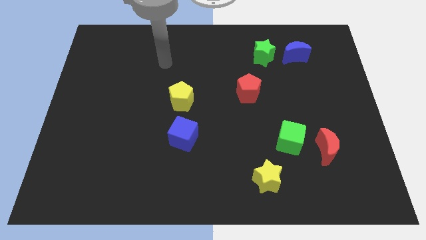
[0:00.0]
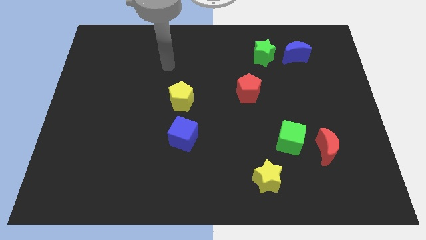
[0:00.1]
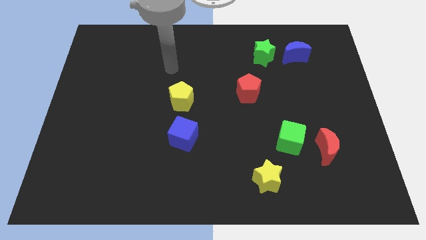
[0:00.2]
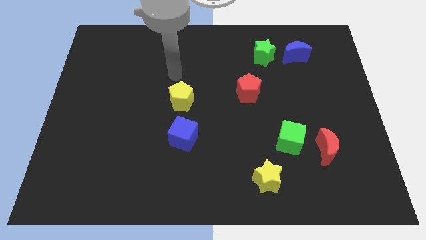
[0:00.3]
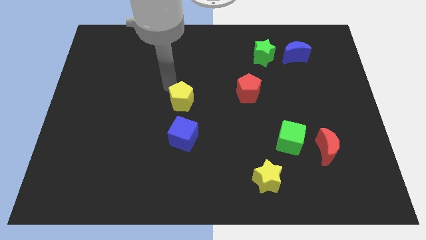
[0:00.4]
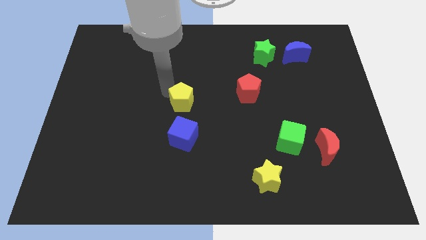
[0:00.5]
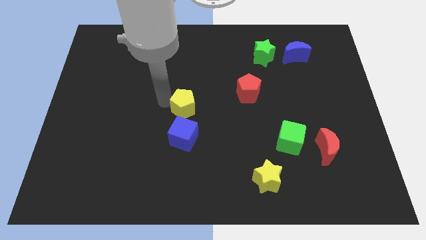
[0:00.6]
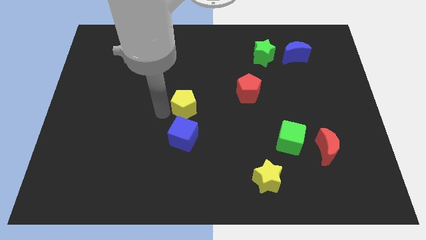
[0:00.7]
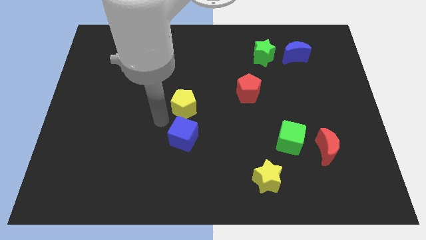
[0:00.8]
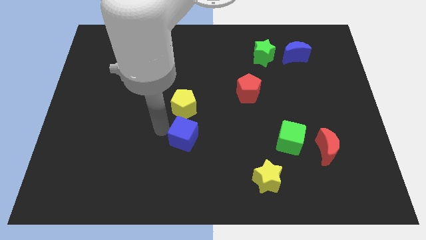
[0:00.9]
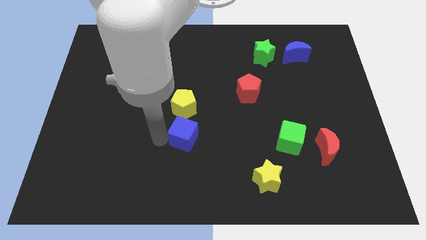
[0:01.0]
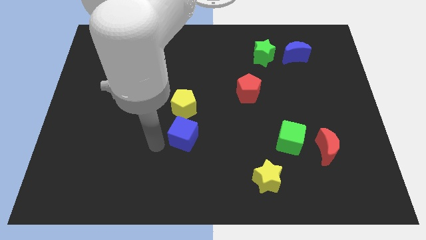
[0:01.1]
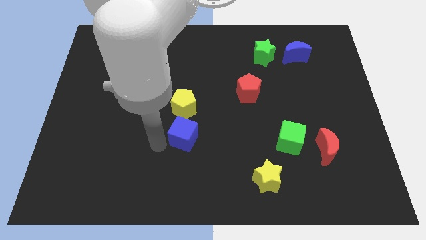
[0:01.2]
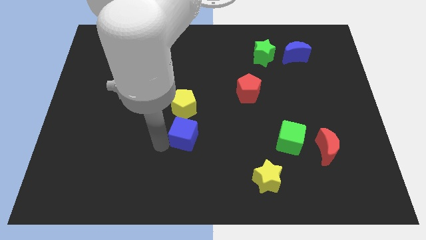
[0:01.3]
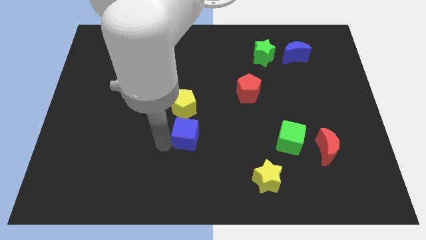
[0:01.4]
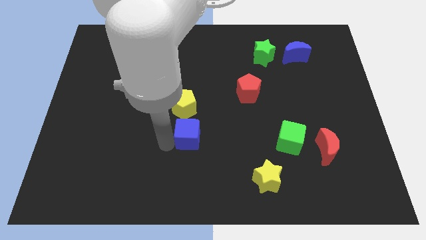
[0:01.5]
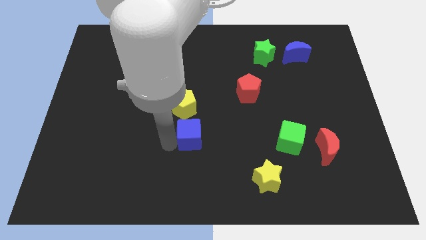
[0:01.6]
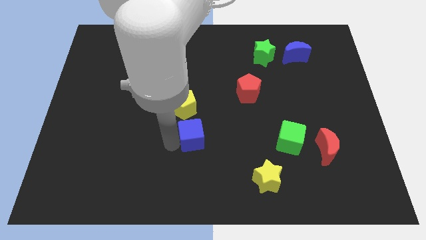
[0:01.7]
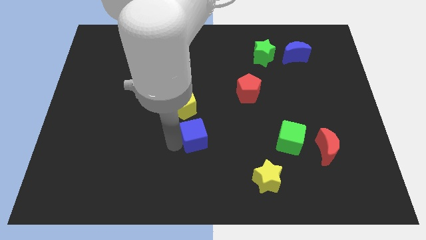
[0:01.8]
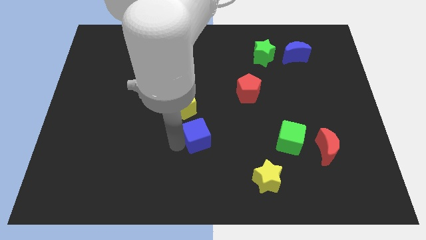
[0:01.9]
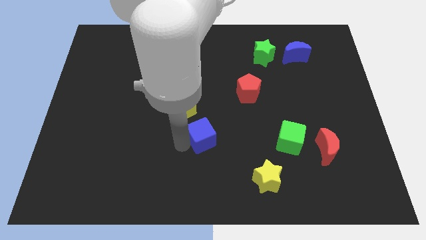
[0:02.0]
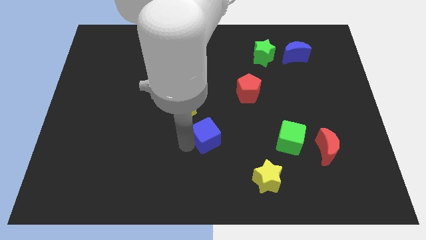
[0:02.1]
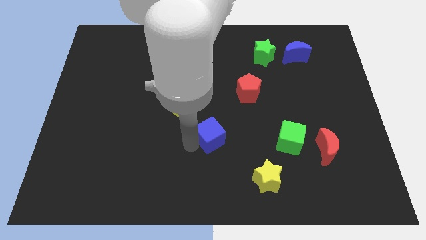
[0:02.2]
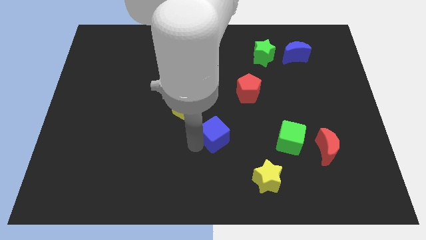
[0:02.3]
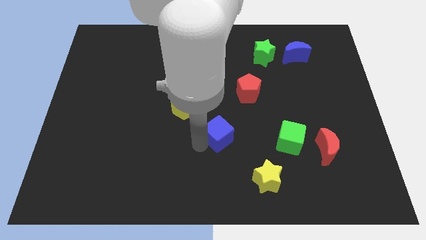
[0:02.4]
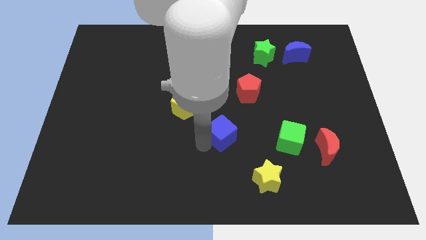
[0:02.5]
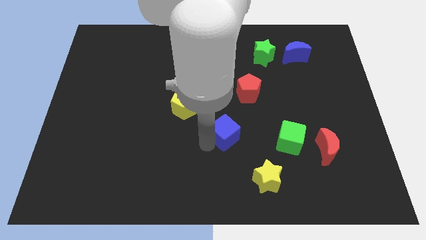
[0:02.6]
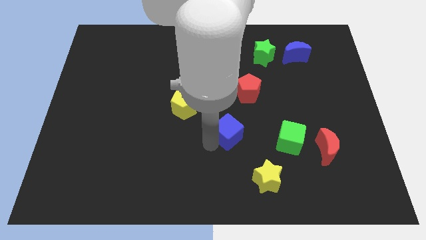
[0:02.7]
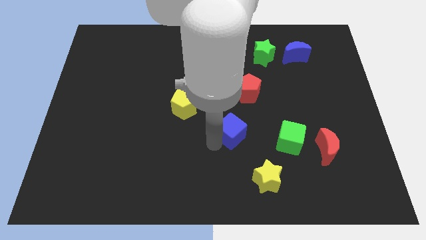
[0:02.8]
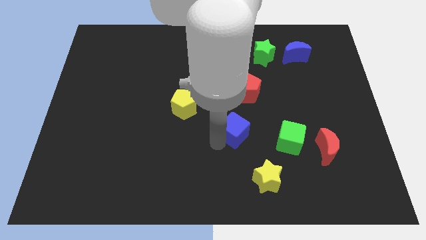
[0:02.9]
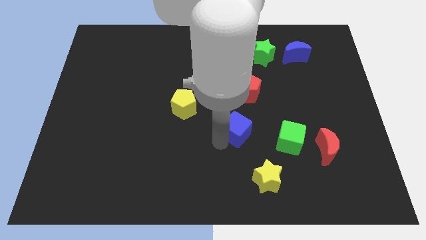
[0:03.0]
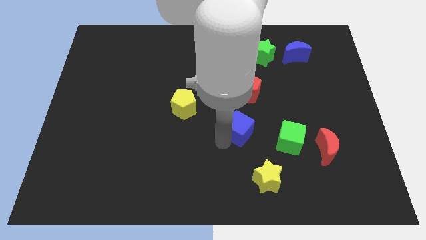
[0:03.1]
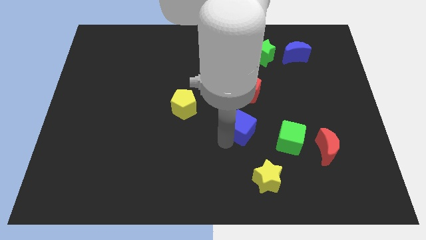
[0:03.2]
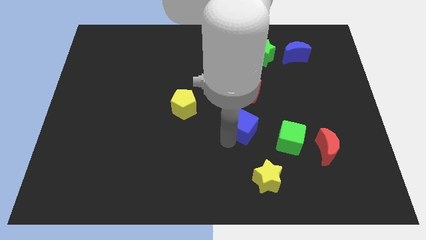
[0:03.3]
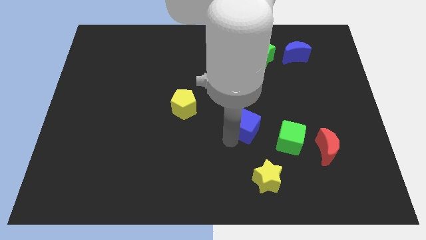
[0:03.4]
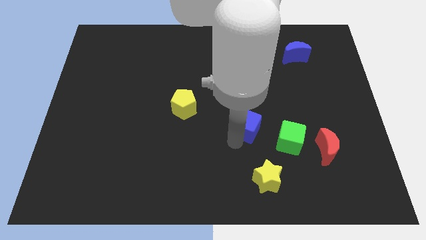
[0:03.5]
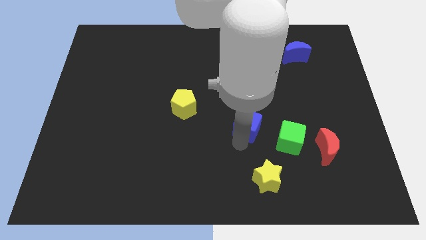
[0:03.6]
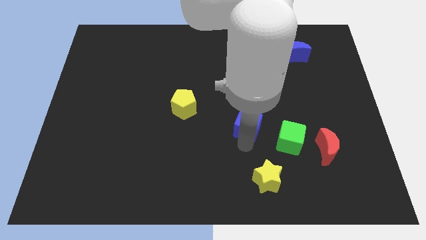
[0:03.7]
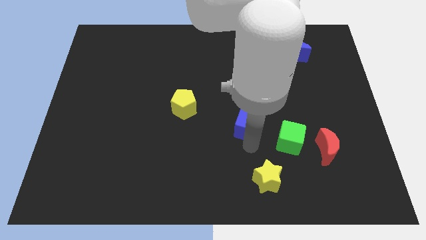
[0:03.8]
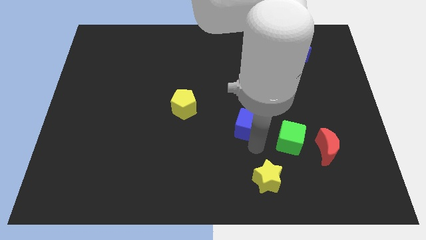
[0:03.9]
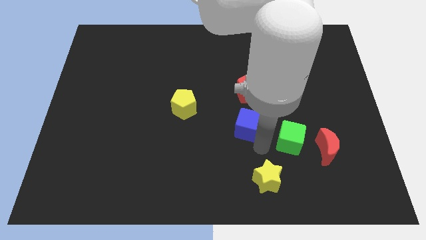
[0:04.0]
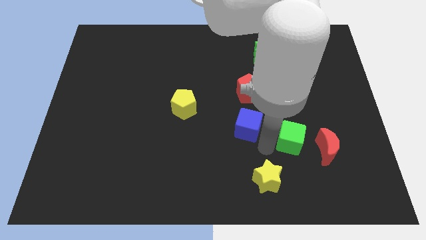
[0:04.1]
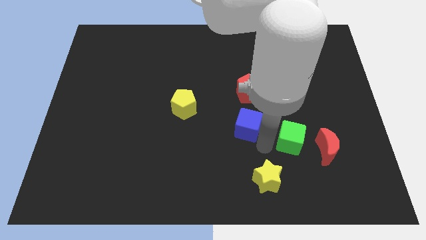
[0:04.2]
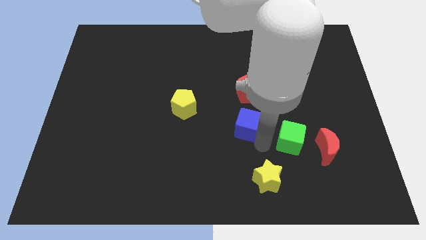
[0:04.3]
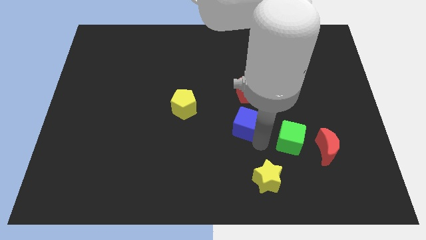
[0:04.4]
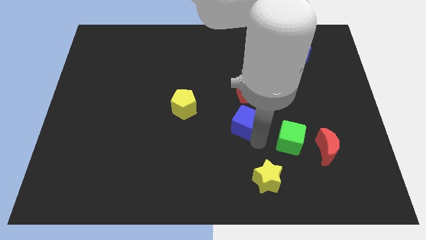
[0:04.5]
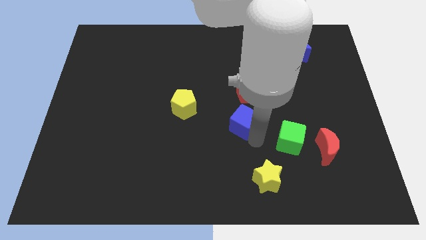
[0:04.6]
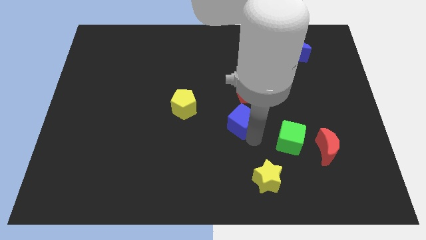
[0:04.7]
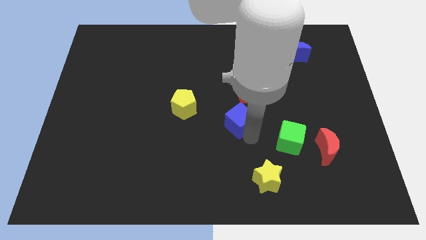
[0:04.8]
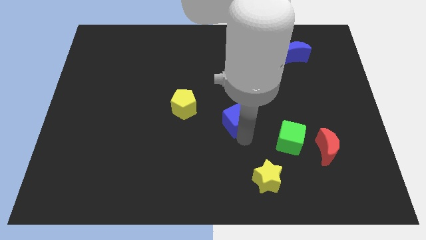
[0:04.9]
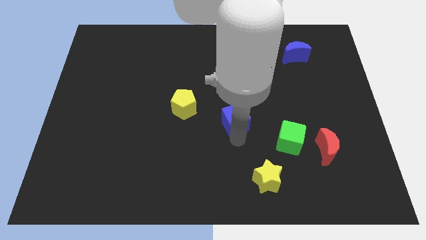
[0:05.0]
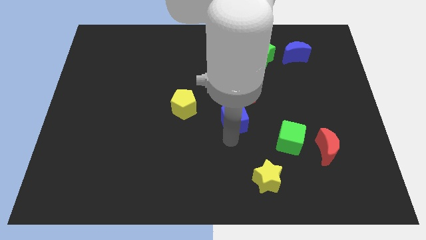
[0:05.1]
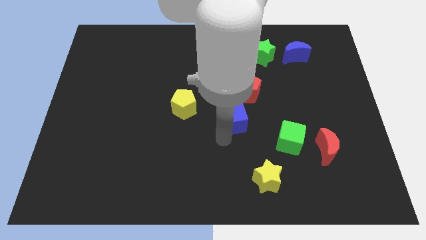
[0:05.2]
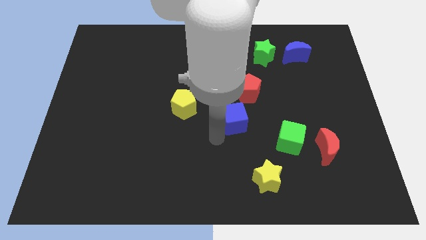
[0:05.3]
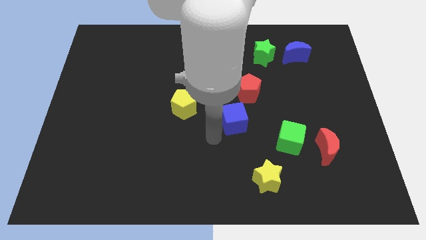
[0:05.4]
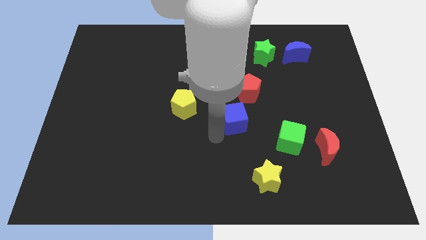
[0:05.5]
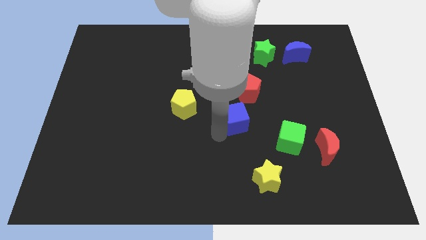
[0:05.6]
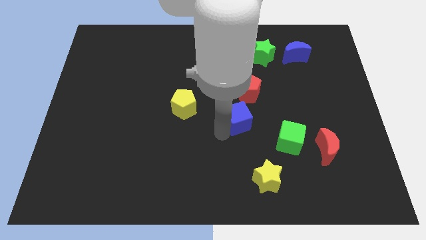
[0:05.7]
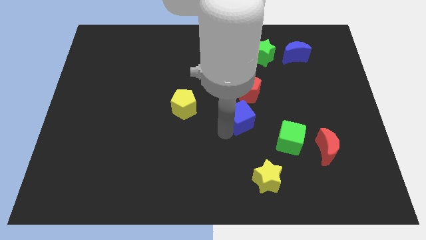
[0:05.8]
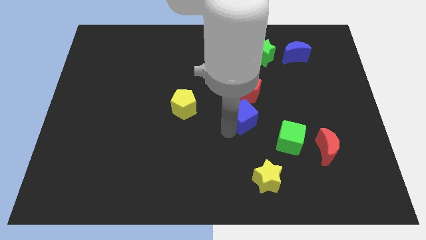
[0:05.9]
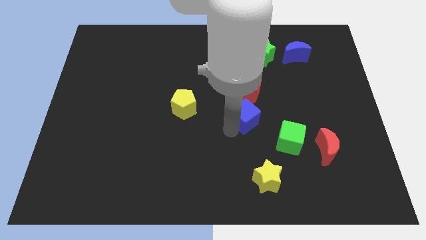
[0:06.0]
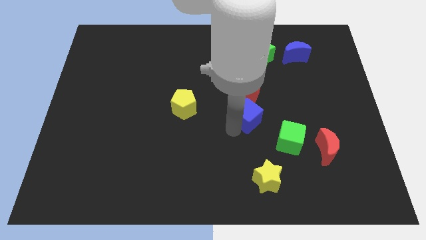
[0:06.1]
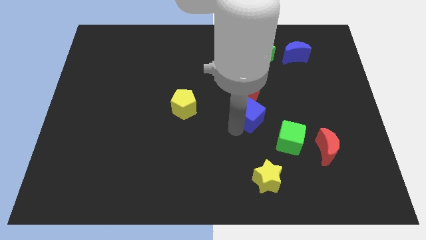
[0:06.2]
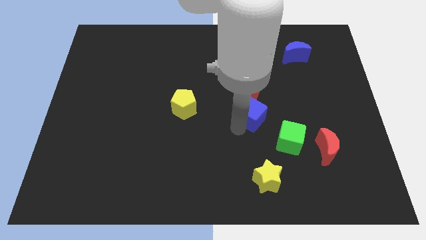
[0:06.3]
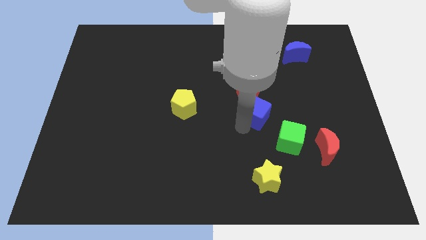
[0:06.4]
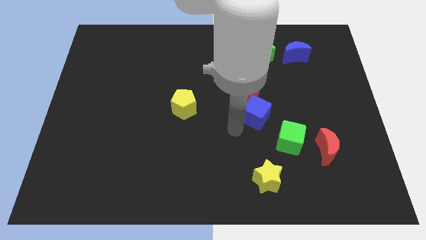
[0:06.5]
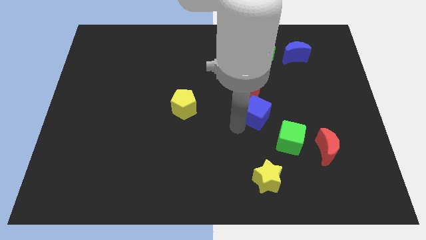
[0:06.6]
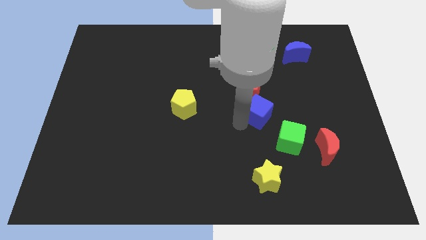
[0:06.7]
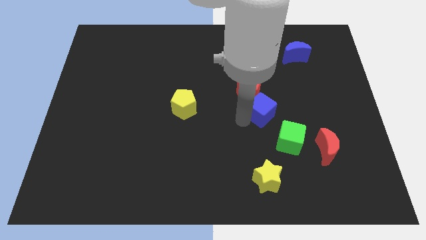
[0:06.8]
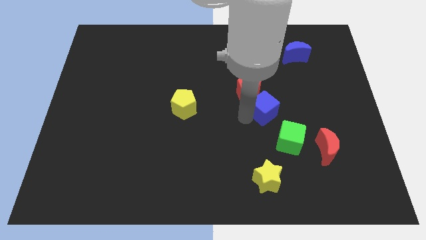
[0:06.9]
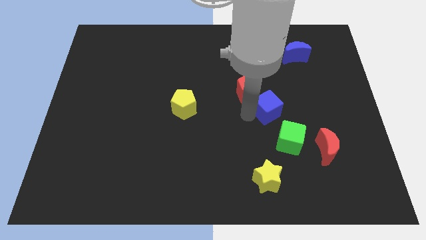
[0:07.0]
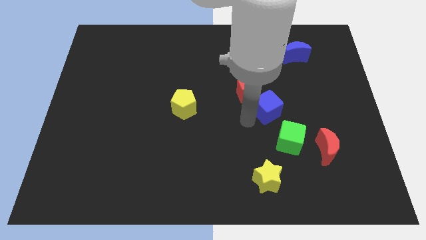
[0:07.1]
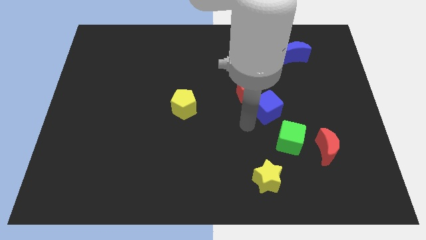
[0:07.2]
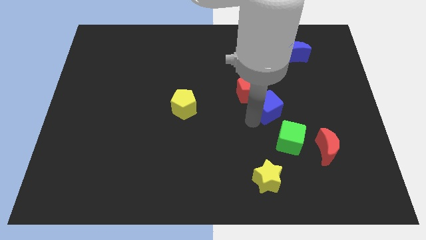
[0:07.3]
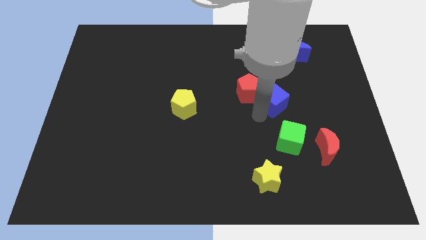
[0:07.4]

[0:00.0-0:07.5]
push the blue cube right of the red pentagon

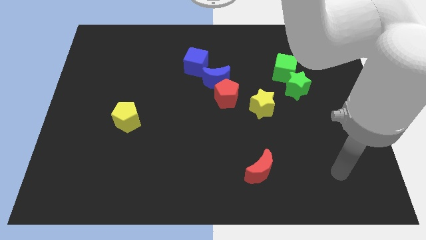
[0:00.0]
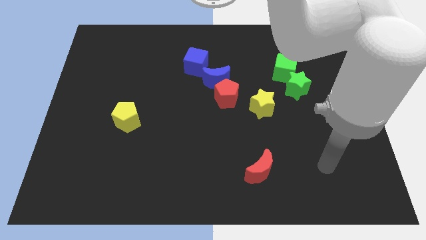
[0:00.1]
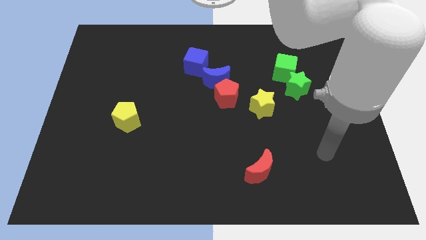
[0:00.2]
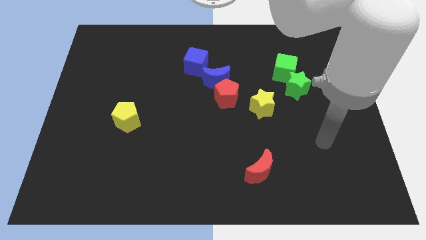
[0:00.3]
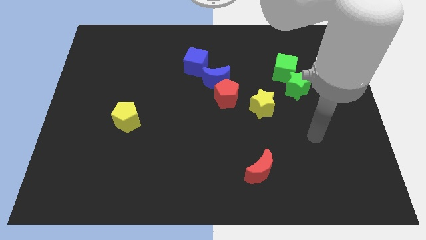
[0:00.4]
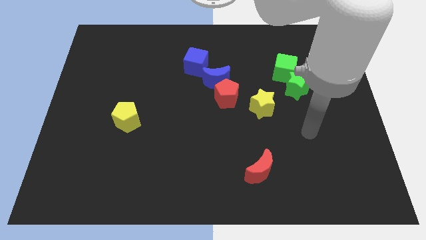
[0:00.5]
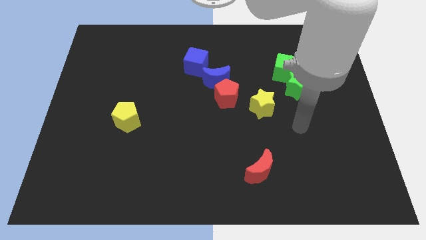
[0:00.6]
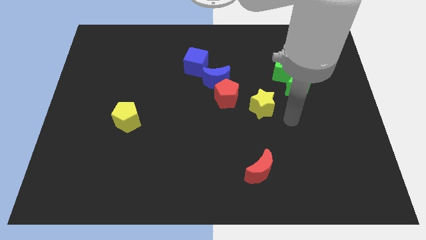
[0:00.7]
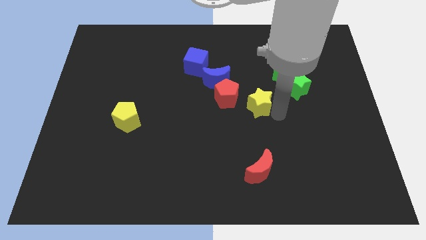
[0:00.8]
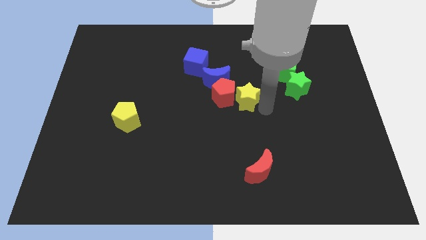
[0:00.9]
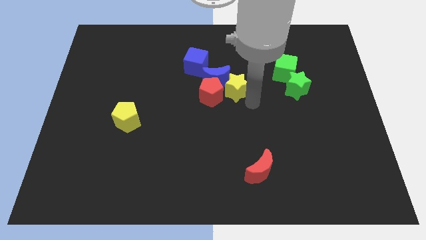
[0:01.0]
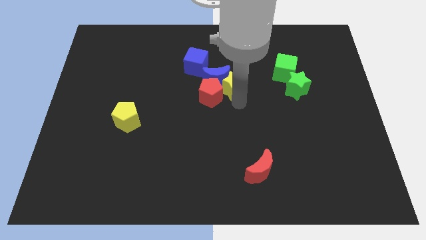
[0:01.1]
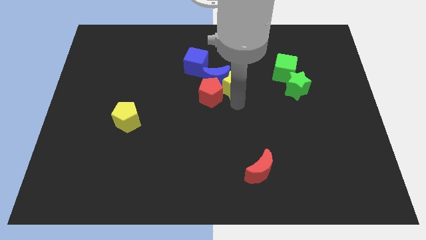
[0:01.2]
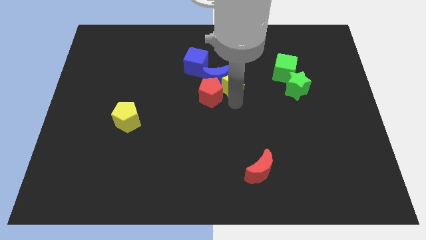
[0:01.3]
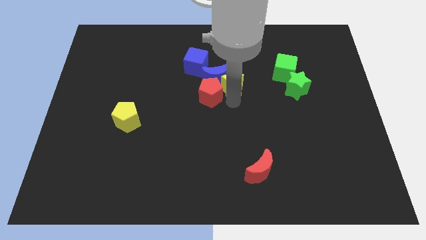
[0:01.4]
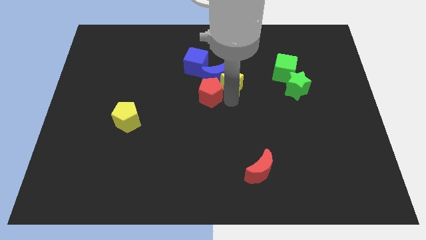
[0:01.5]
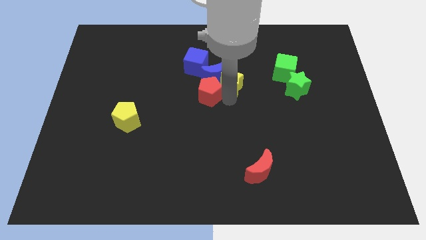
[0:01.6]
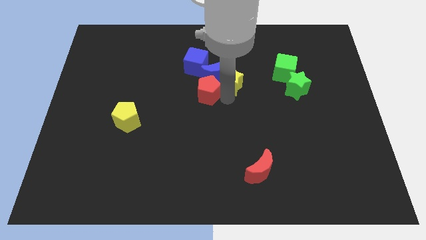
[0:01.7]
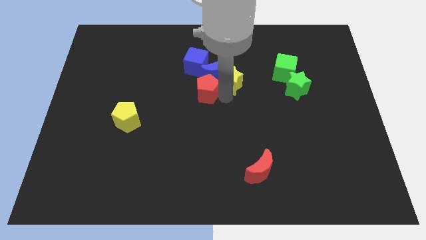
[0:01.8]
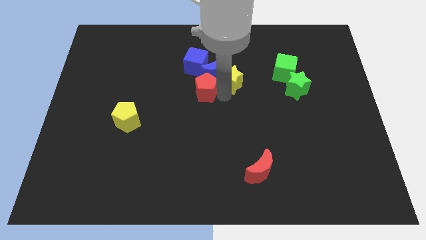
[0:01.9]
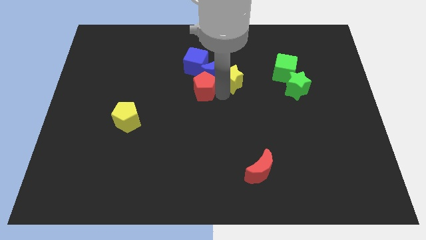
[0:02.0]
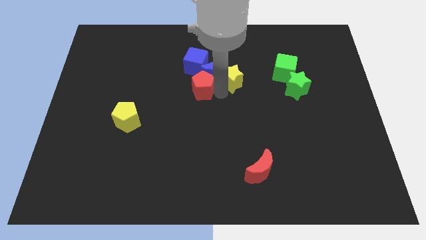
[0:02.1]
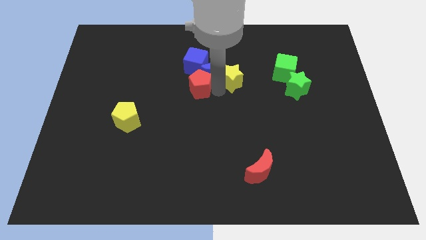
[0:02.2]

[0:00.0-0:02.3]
push the red pentagon to the left side of the blue moon
